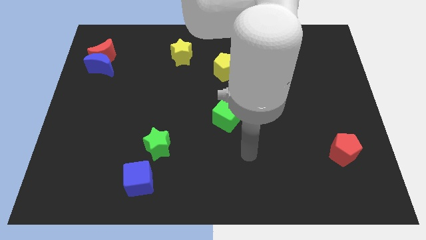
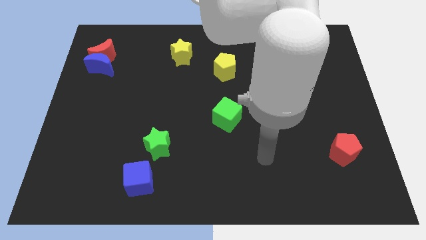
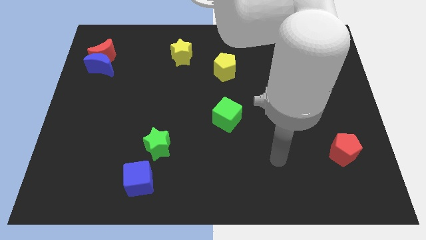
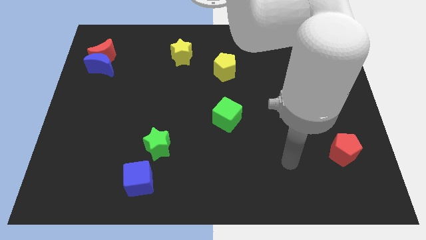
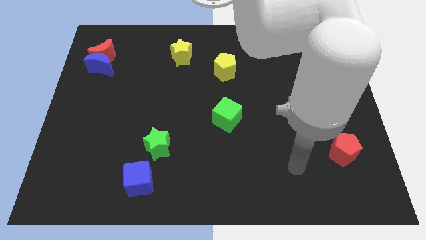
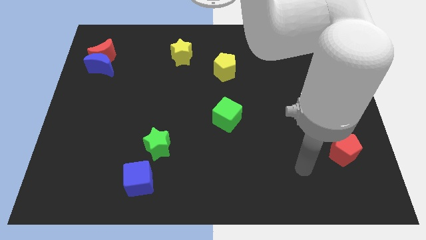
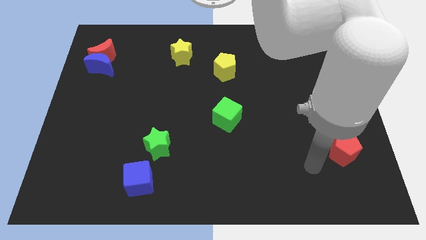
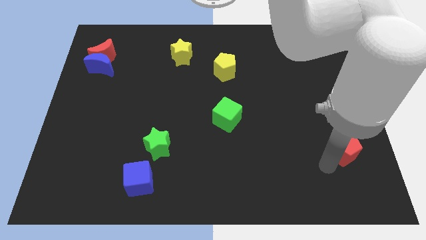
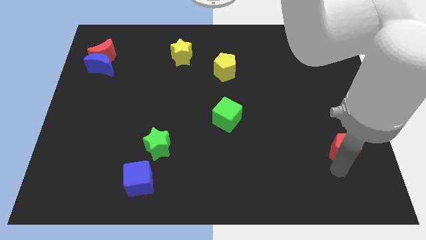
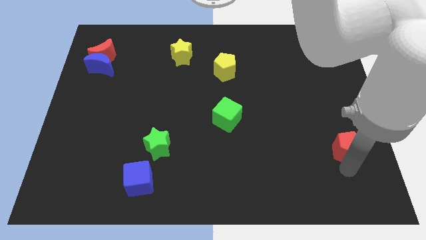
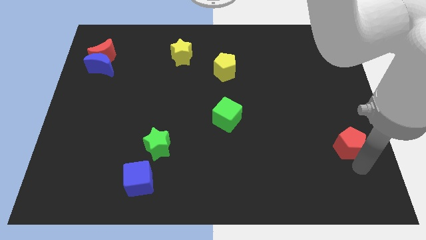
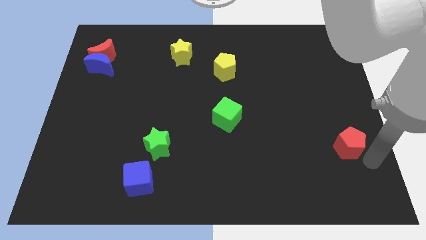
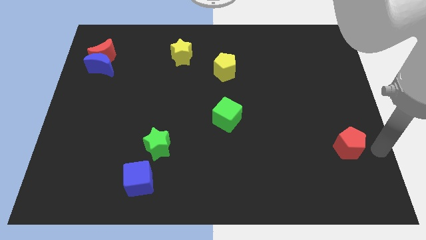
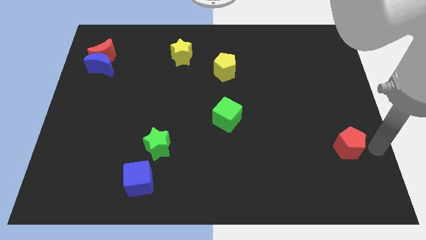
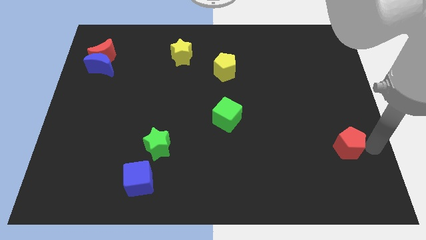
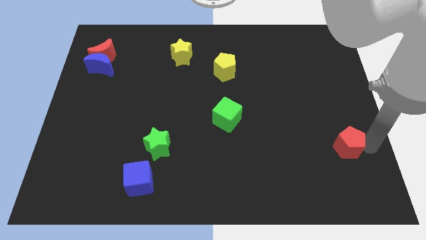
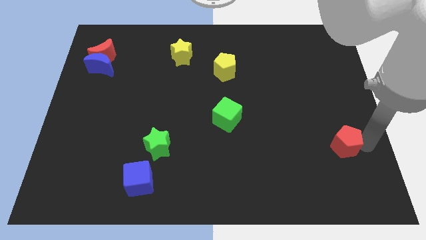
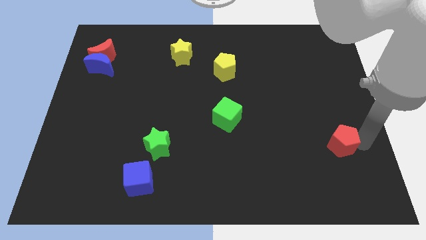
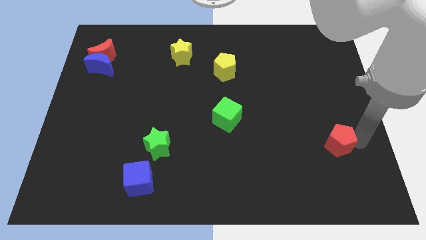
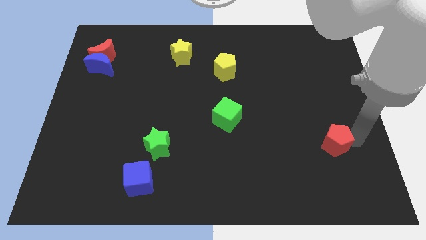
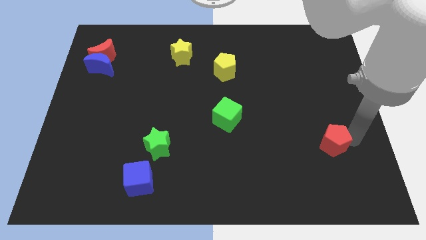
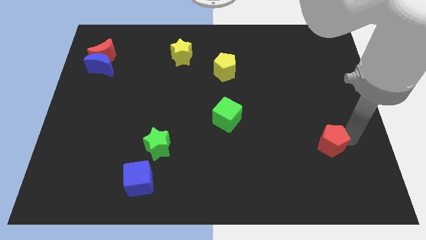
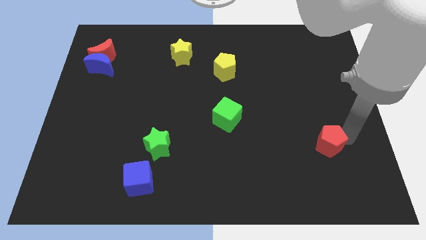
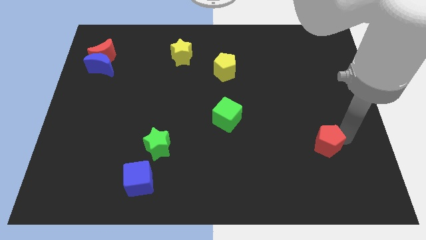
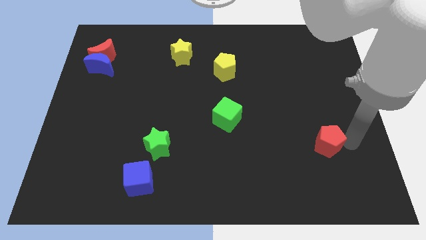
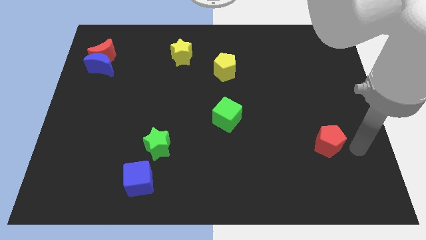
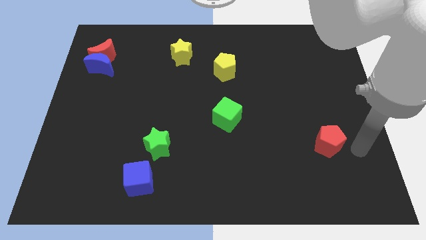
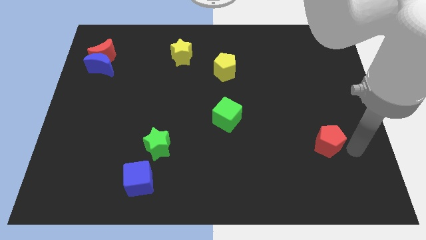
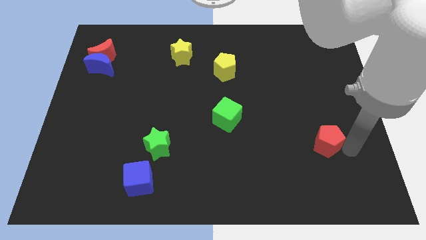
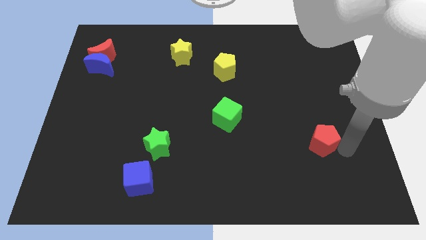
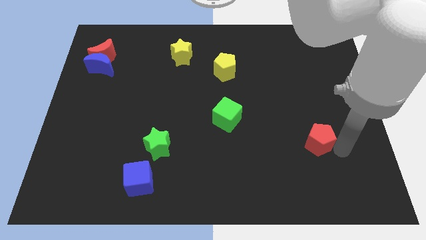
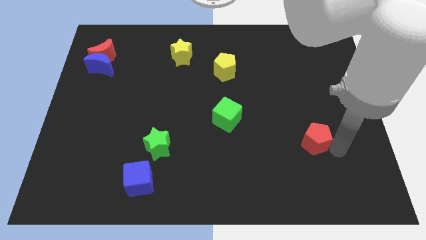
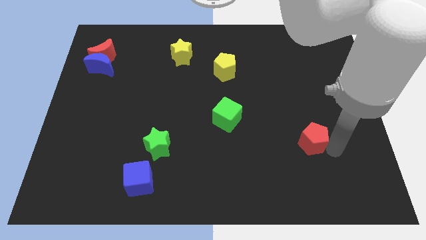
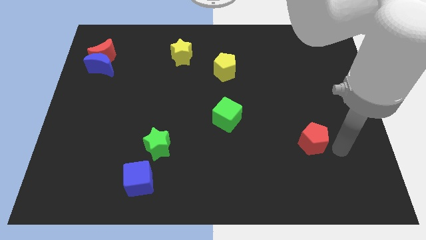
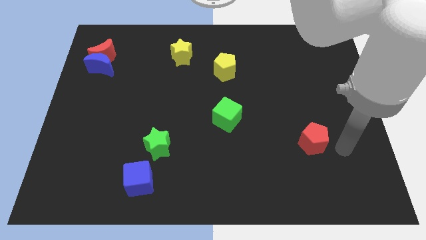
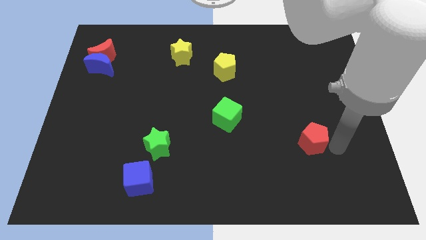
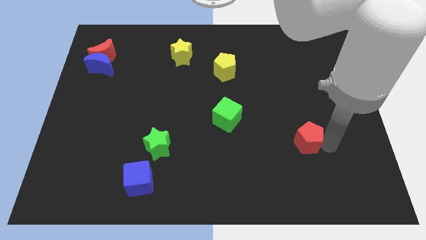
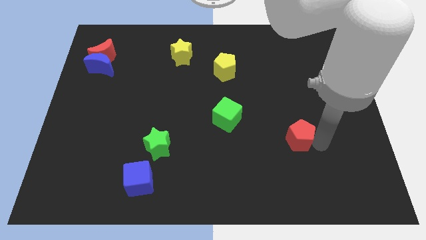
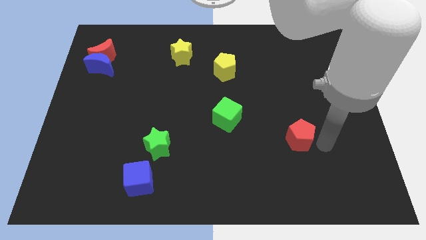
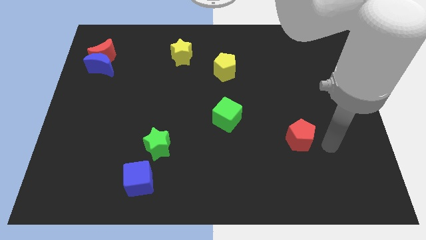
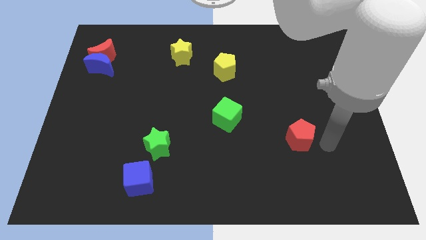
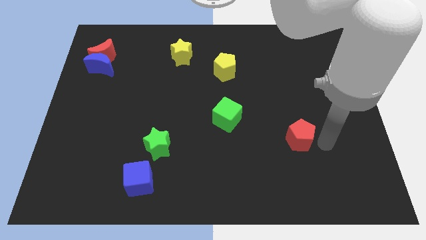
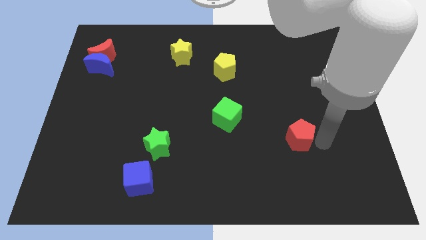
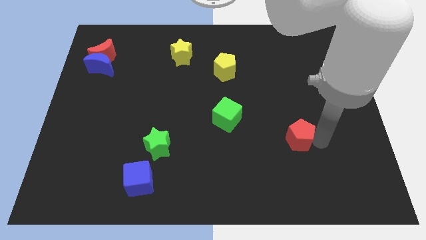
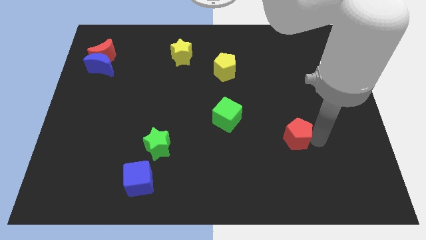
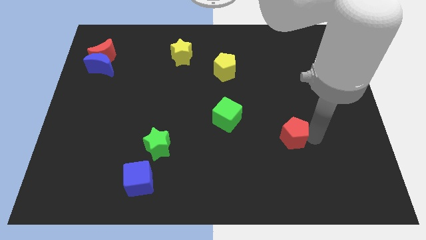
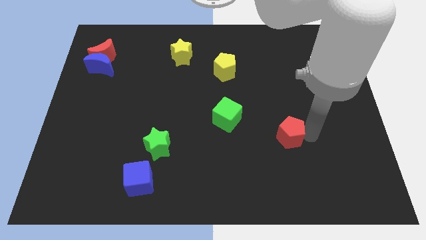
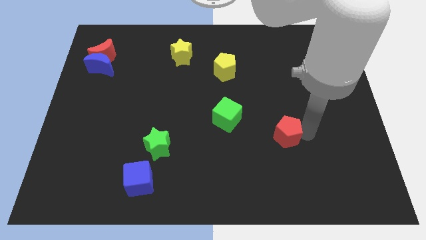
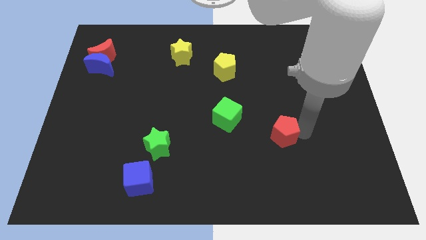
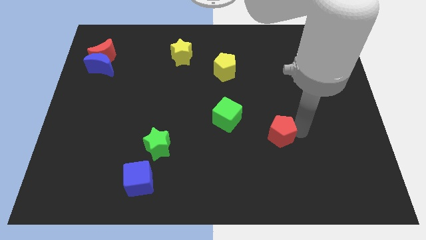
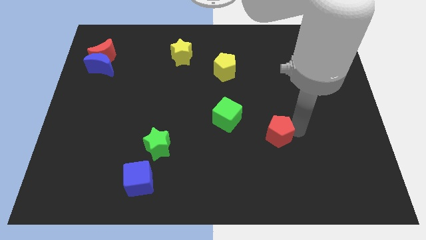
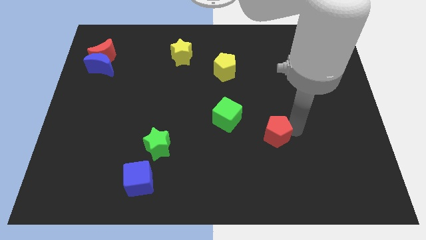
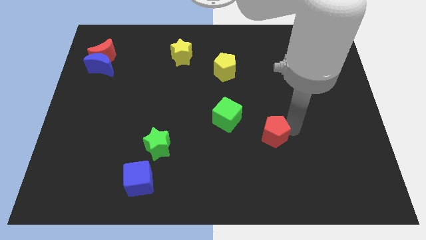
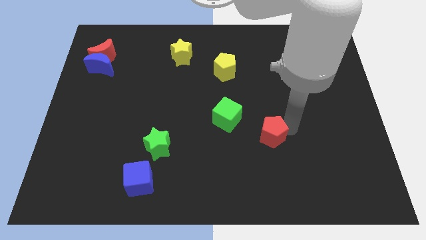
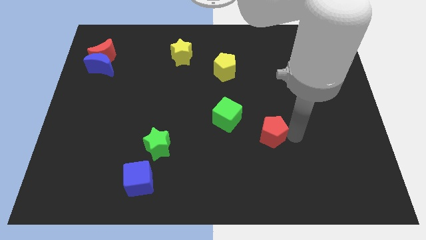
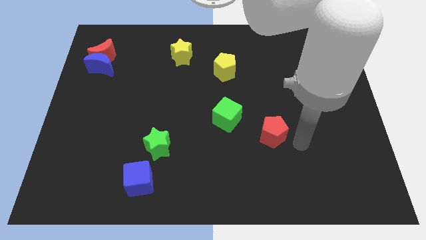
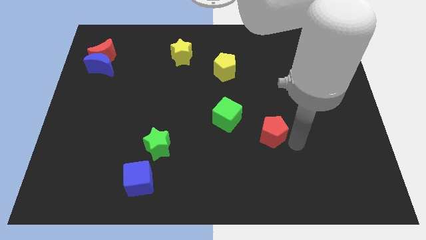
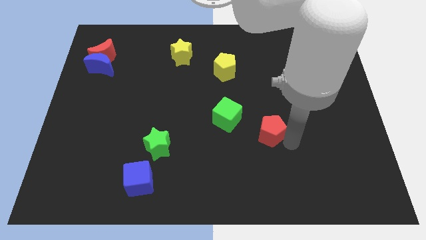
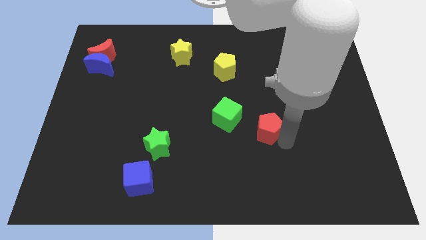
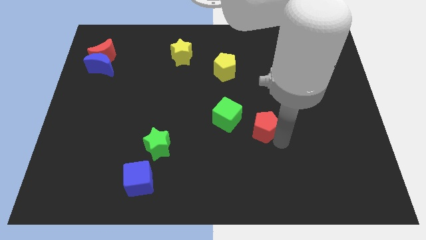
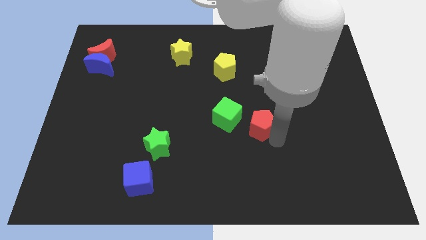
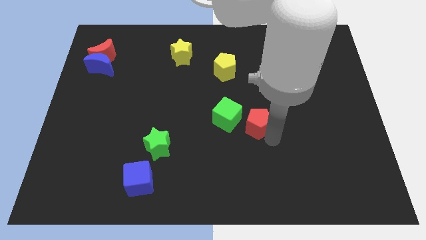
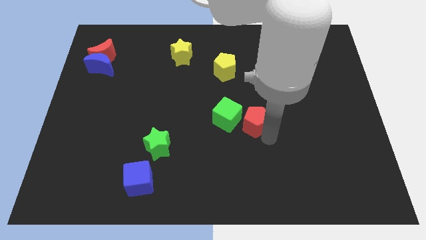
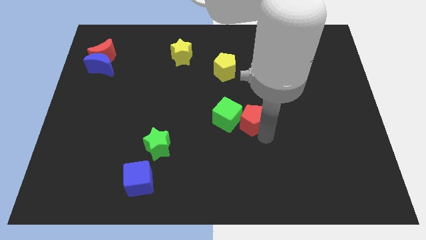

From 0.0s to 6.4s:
move the red pentagon close to the green cube

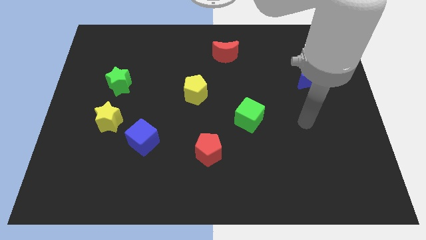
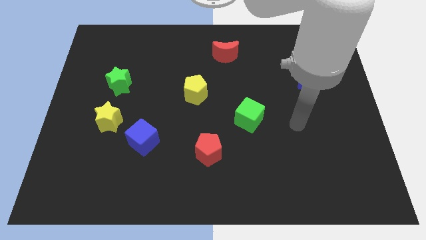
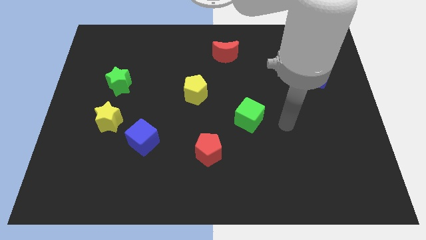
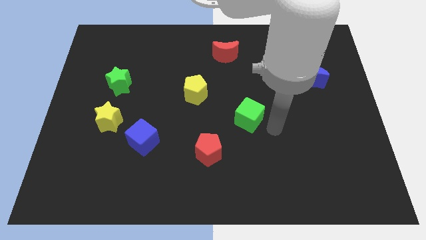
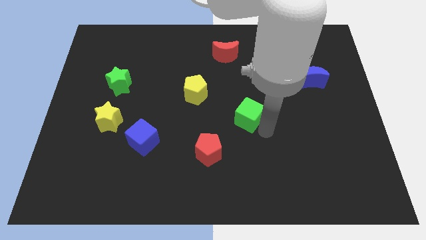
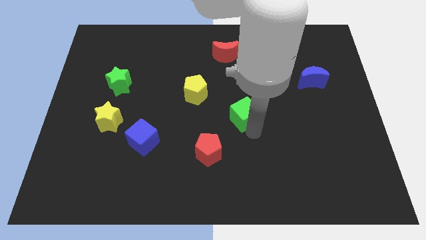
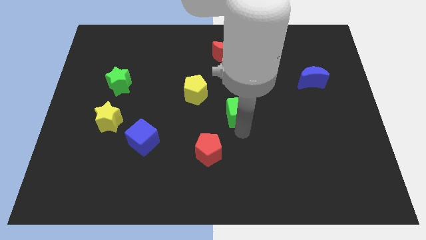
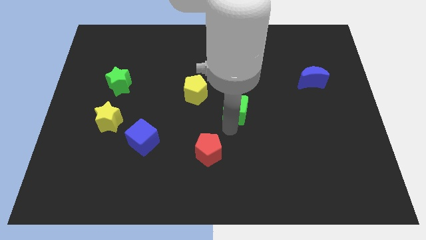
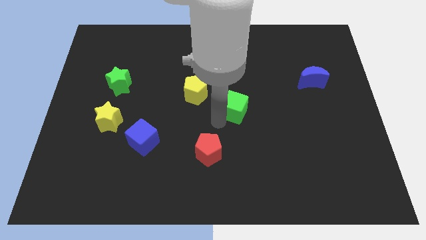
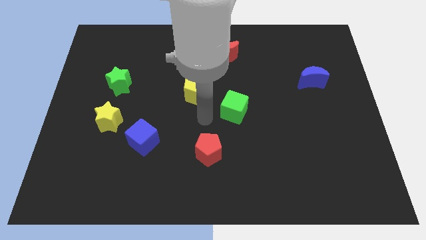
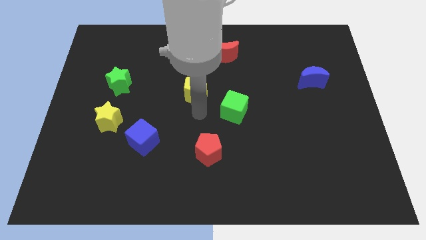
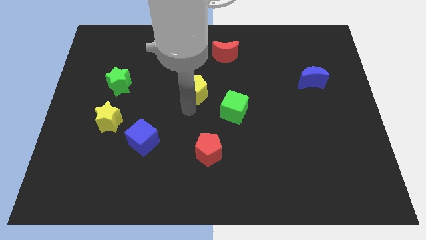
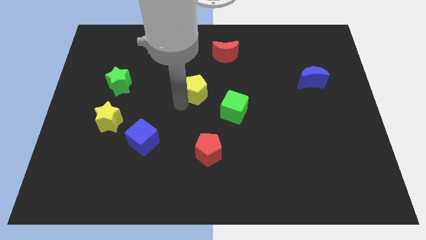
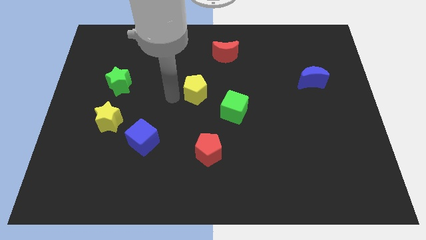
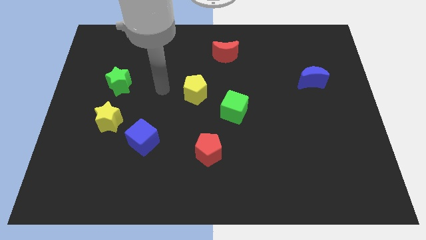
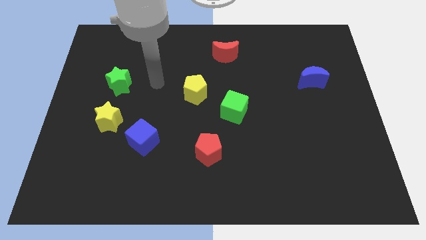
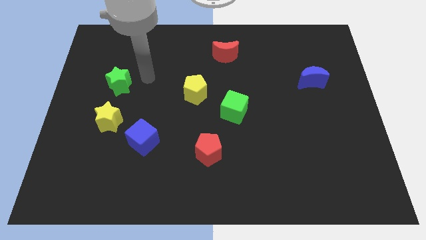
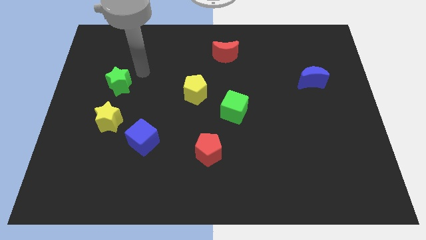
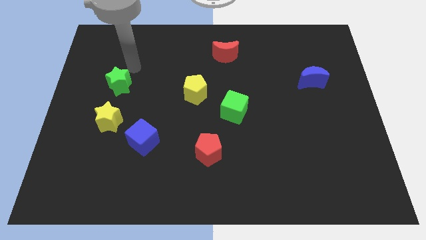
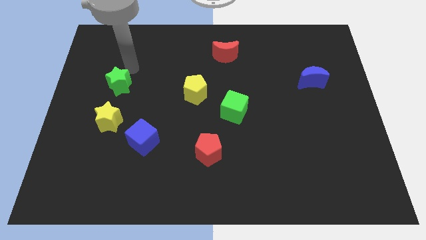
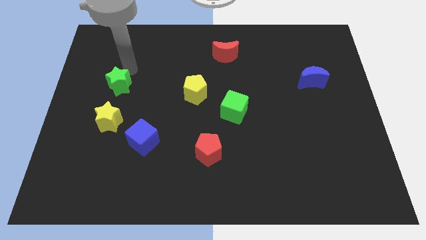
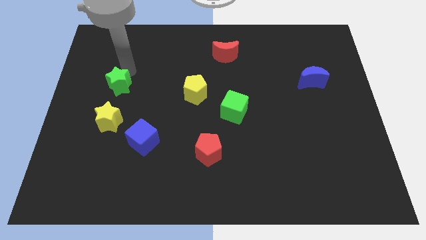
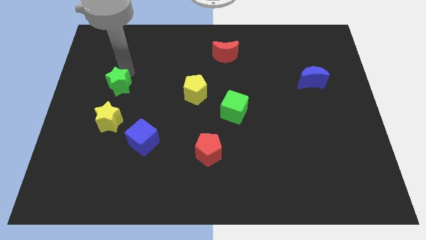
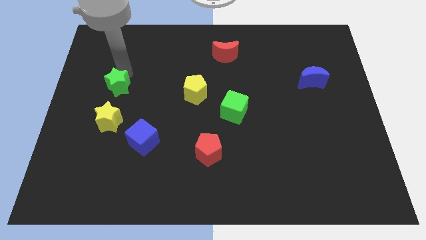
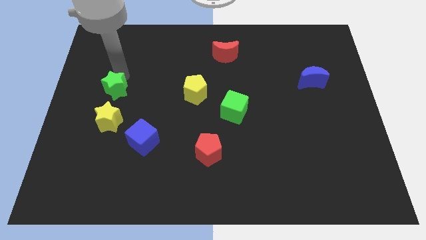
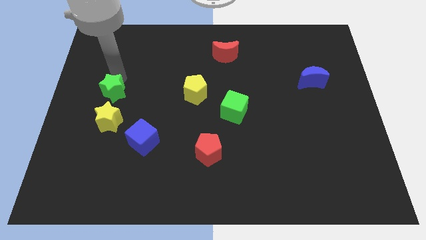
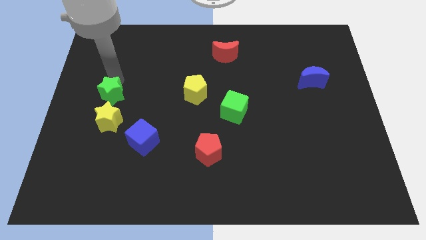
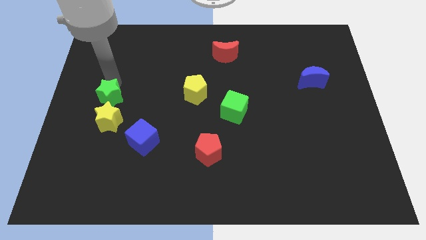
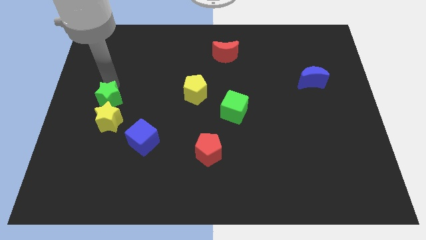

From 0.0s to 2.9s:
put the green star next to the yellow star
